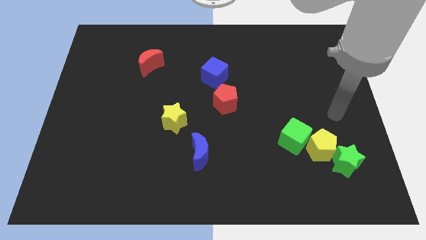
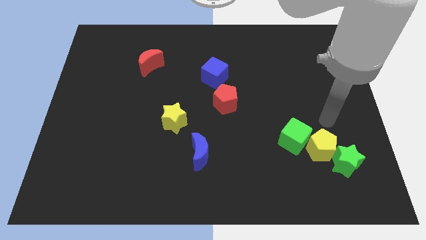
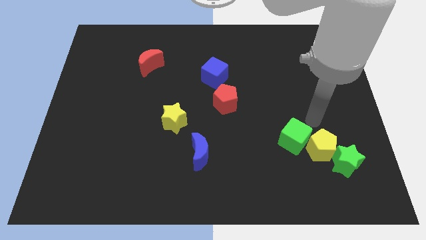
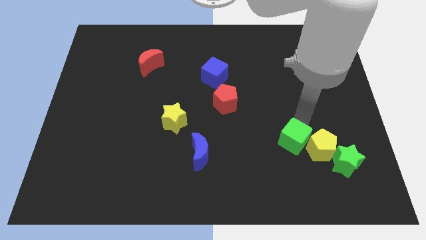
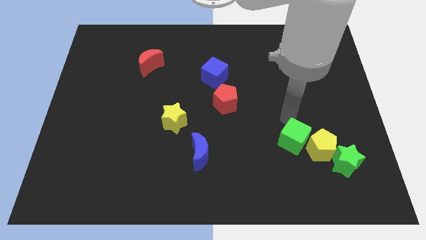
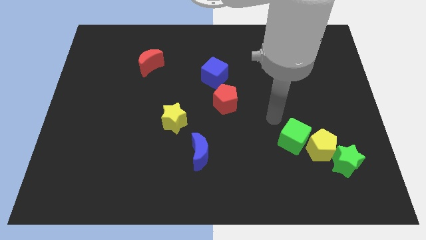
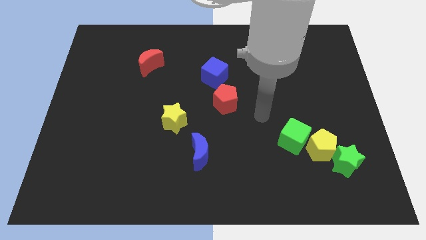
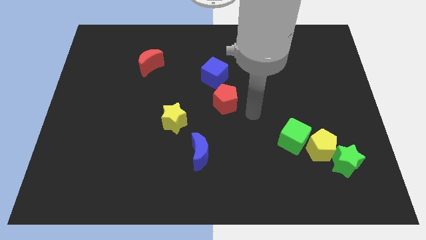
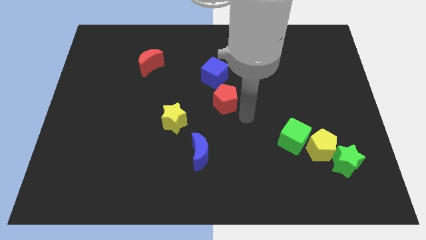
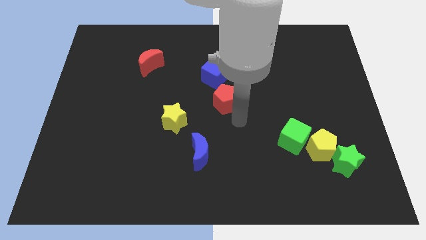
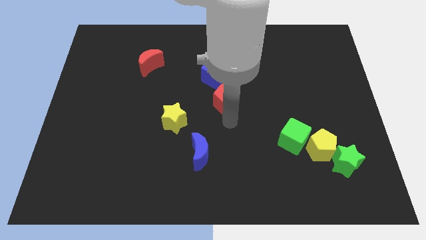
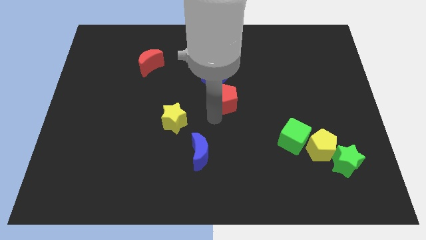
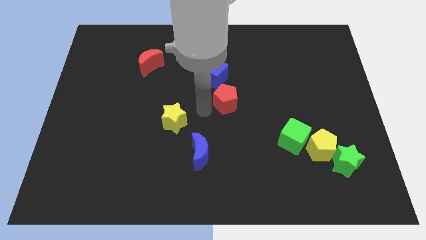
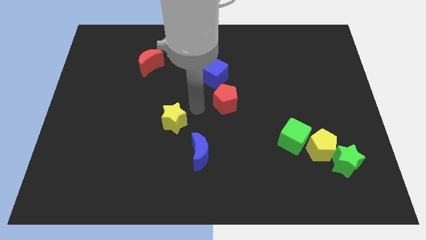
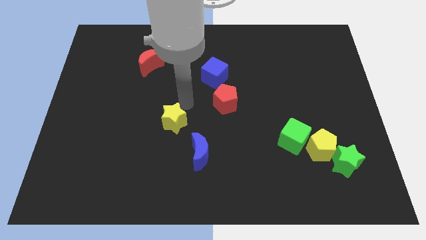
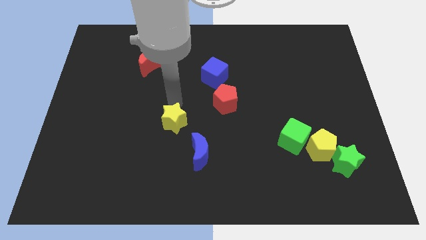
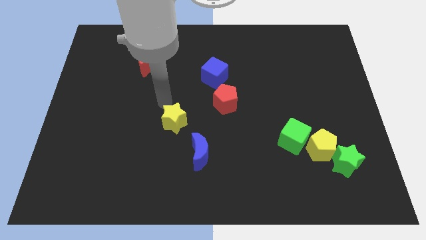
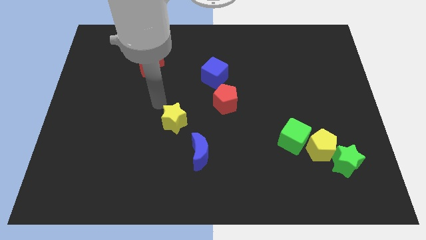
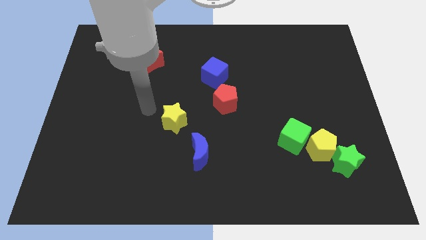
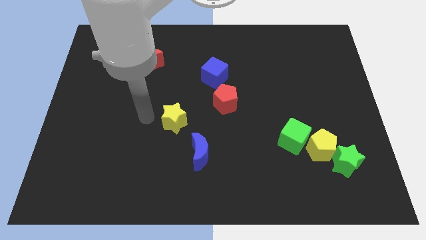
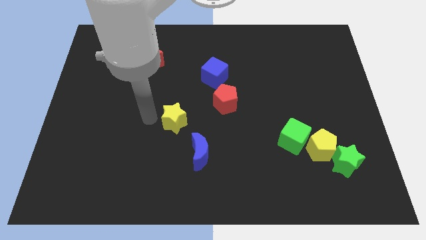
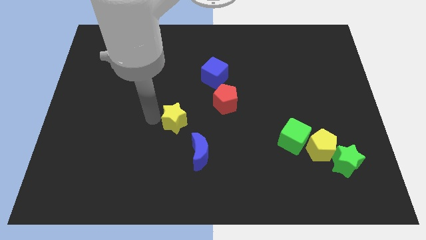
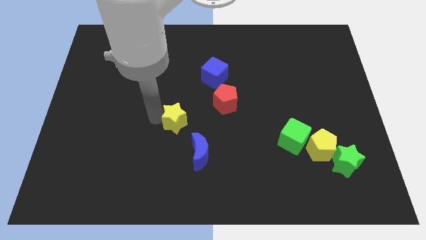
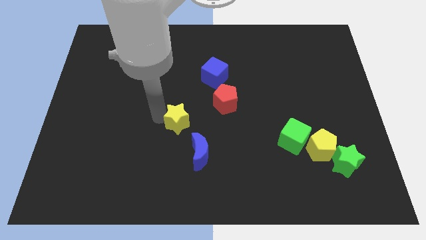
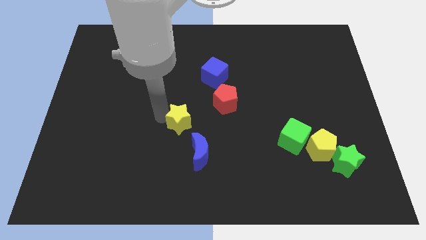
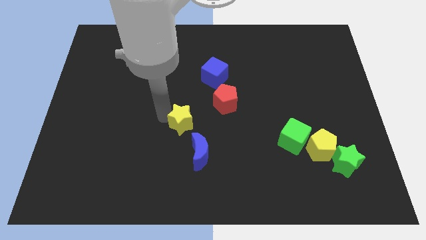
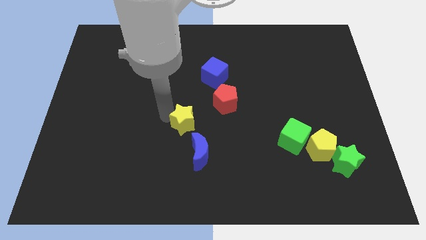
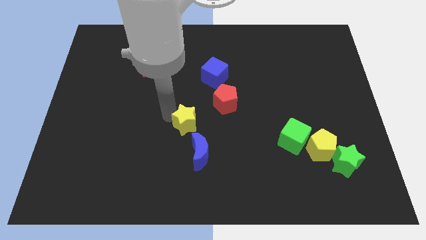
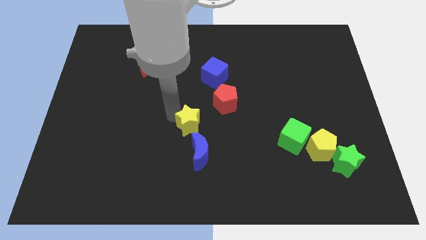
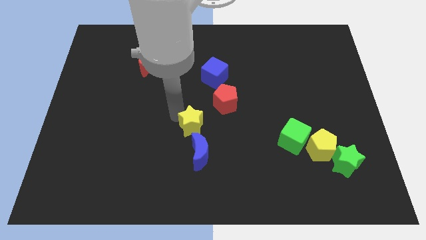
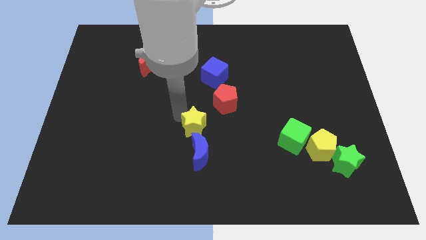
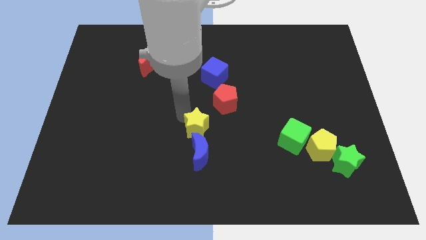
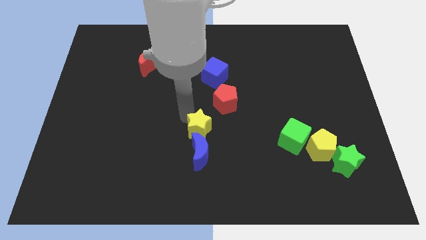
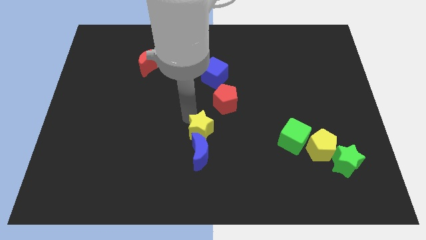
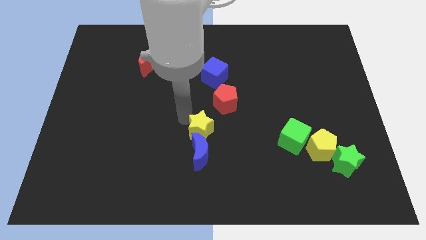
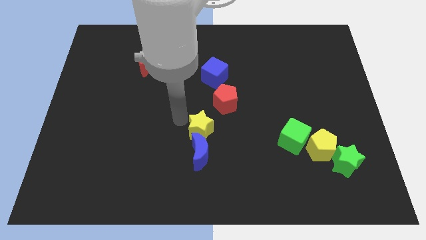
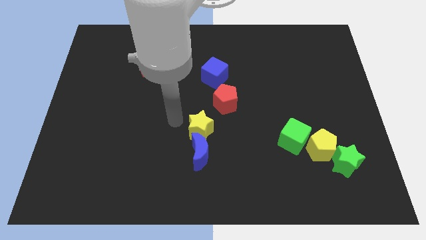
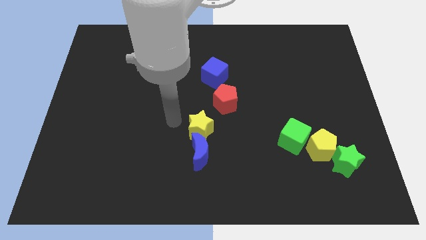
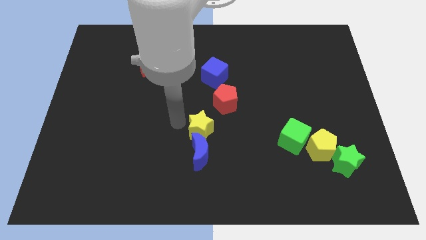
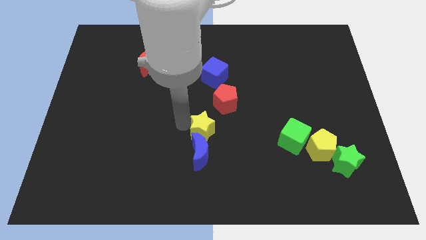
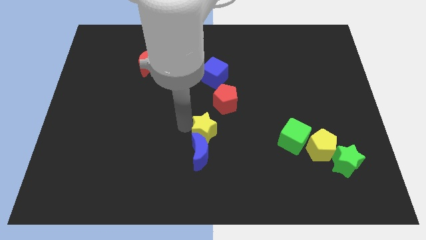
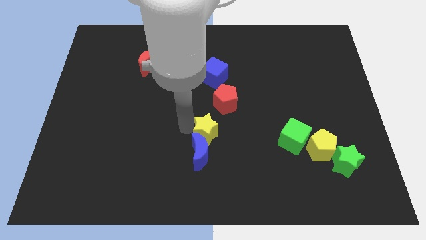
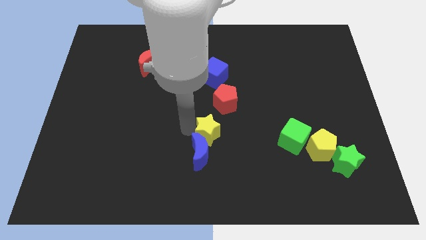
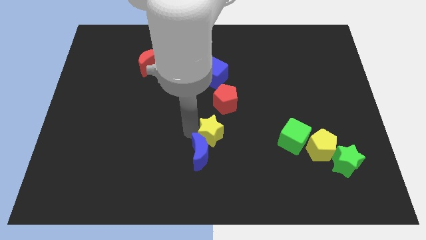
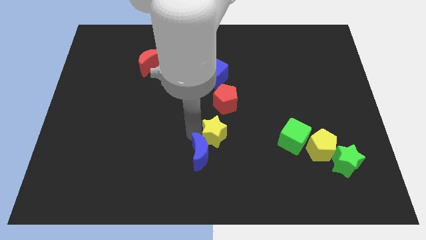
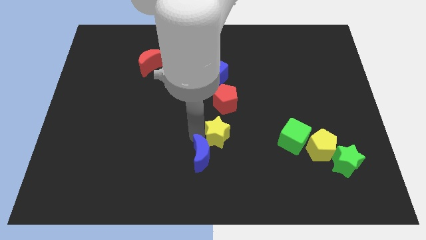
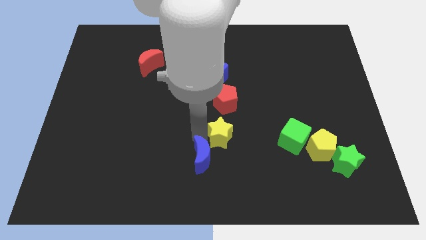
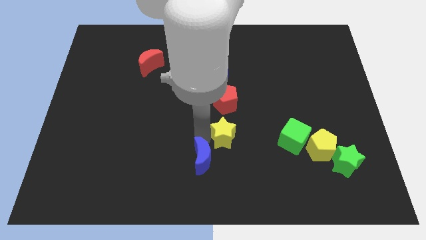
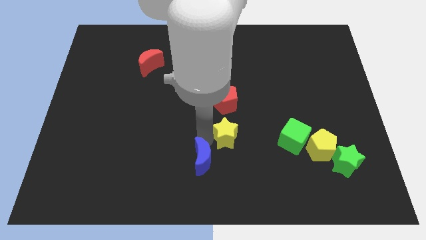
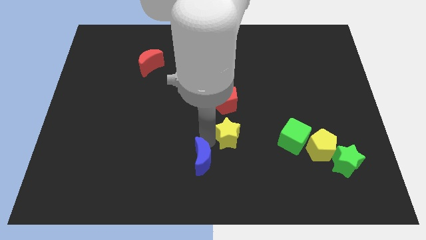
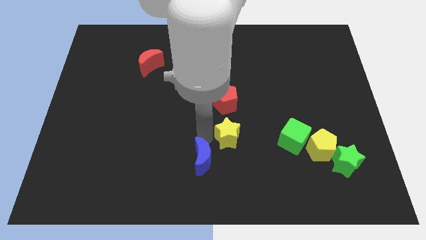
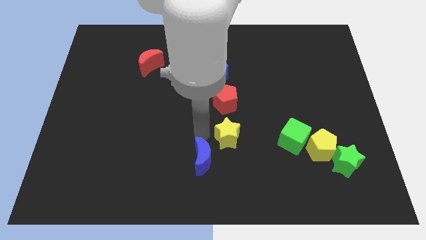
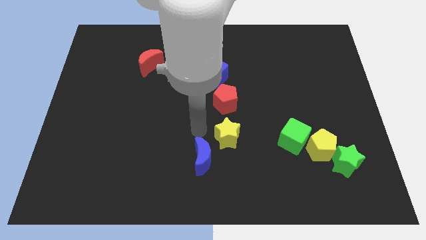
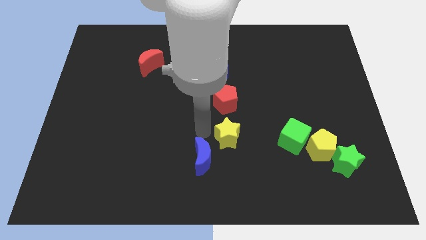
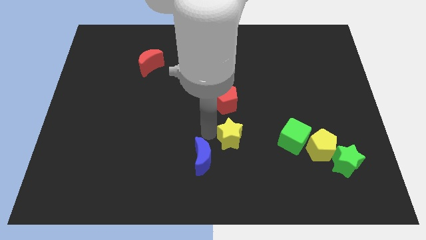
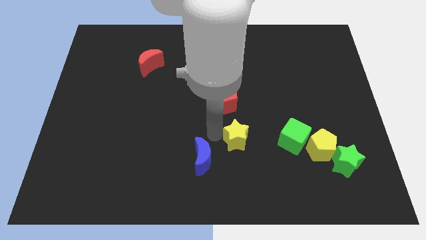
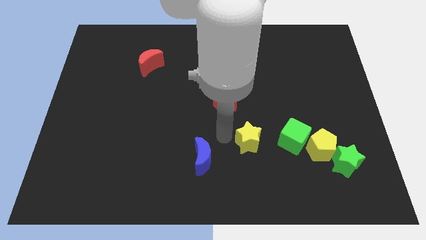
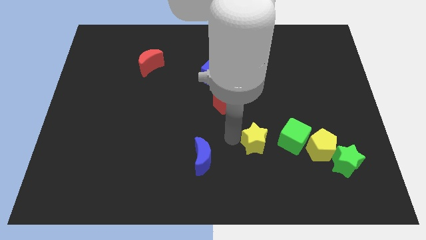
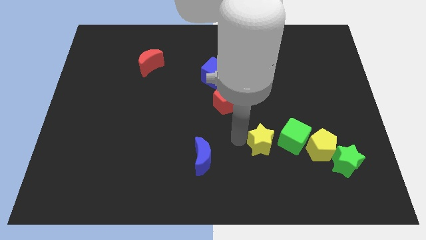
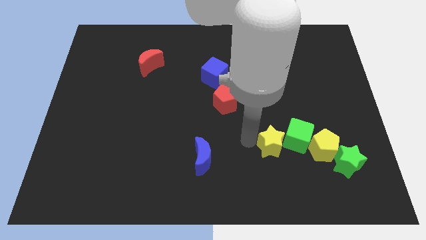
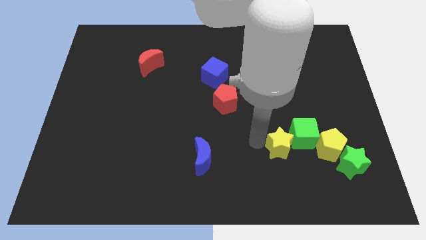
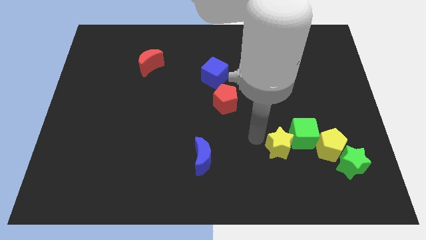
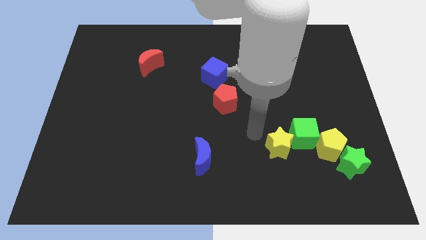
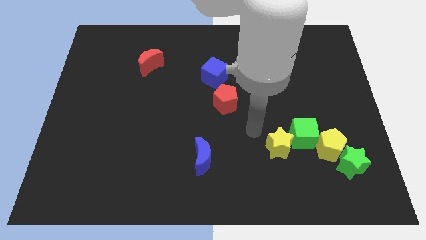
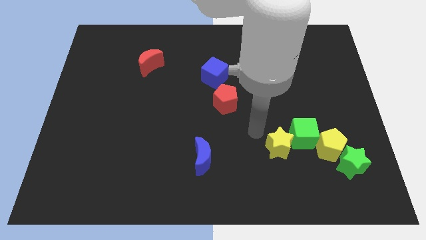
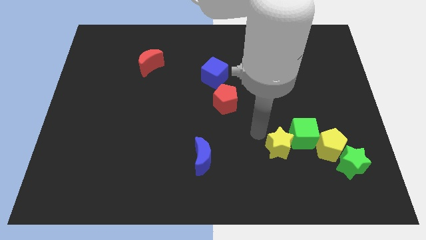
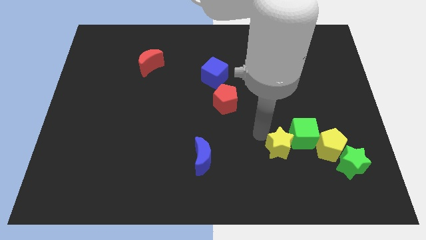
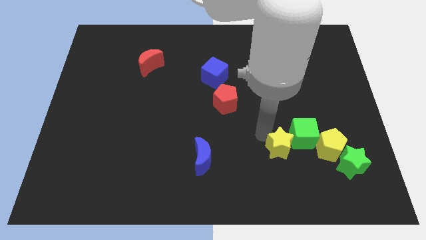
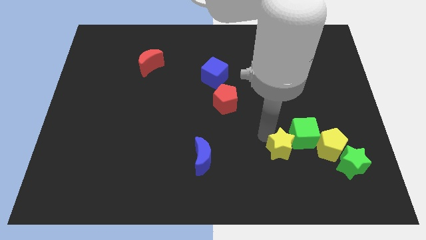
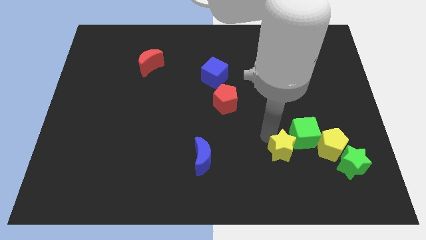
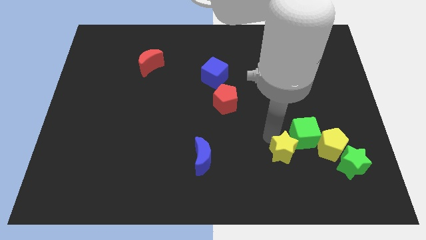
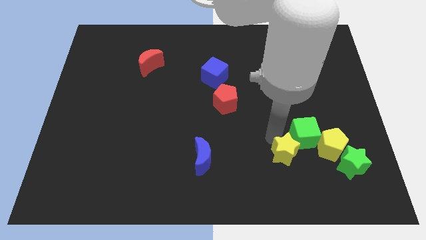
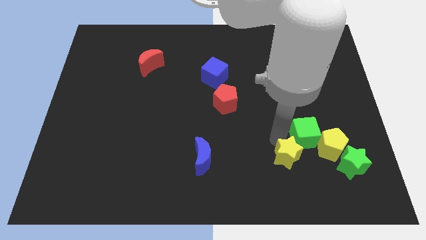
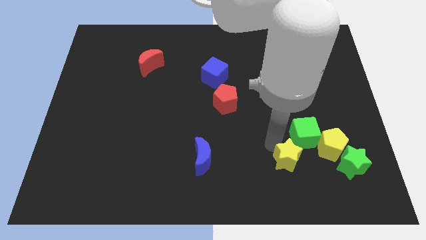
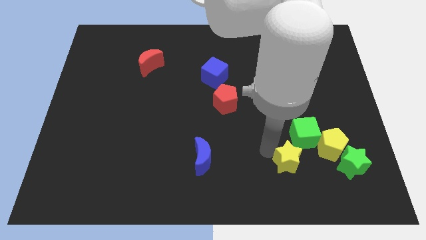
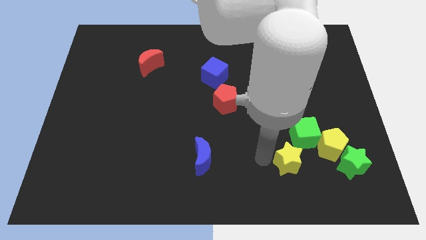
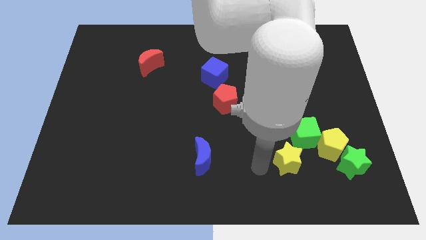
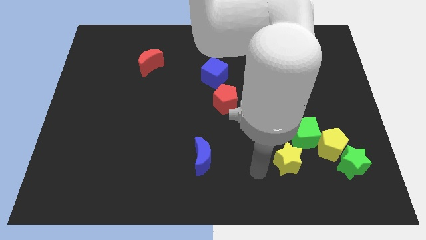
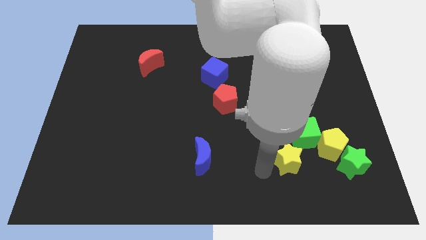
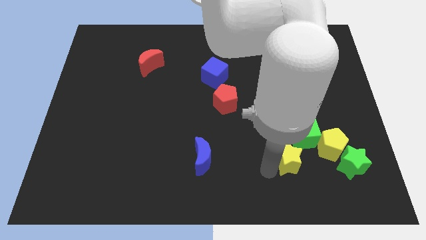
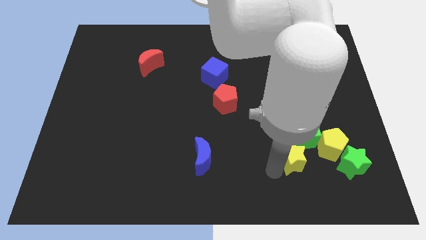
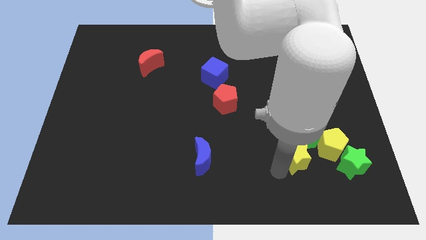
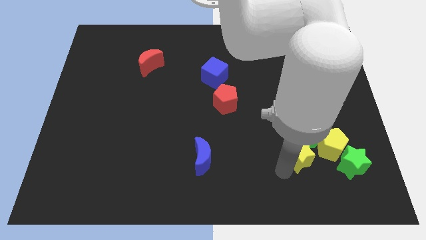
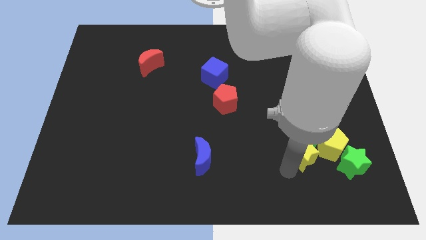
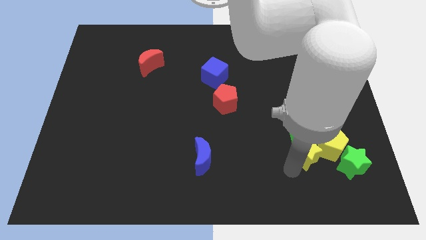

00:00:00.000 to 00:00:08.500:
push the yellow star to the yellow pentagon
